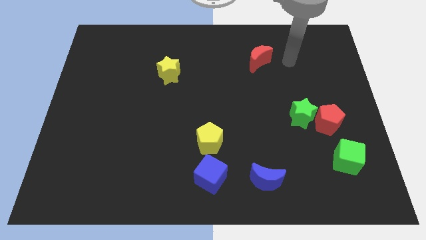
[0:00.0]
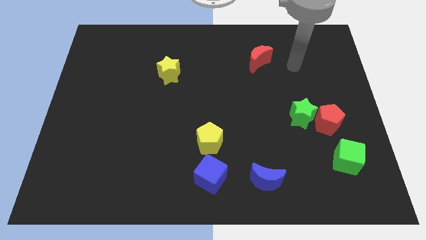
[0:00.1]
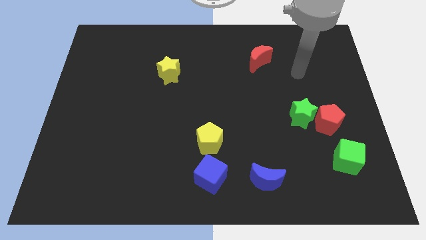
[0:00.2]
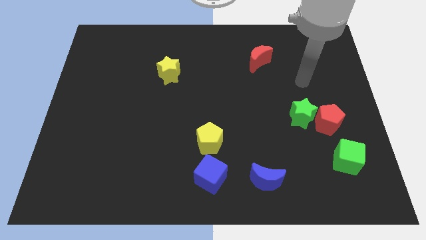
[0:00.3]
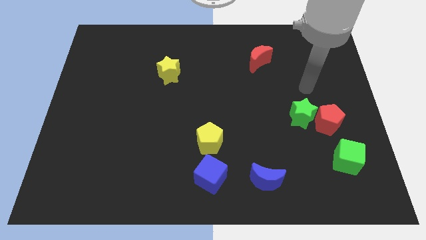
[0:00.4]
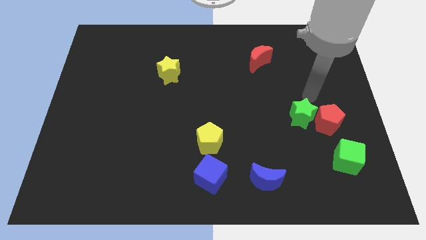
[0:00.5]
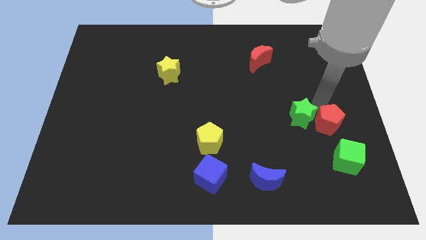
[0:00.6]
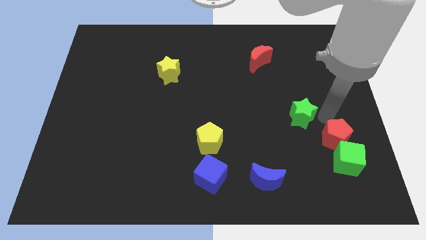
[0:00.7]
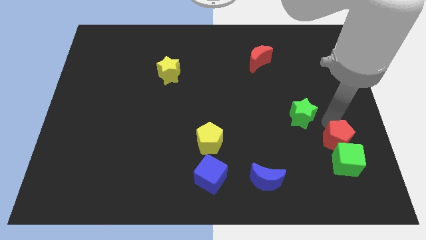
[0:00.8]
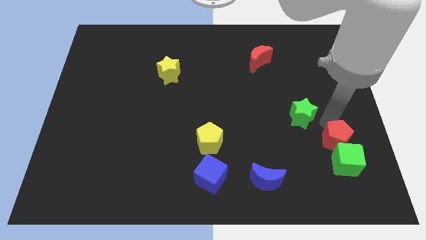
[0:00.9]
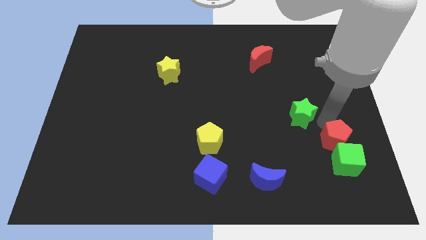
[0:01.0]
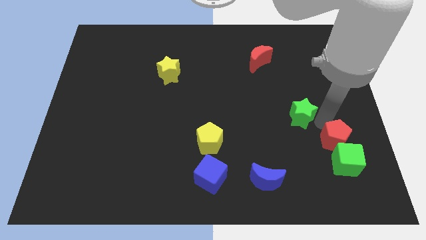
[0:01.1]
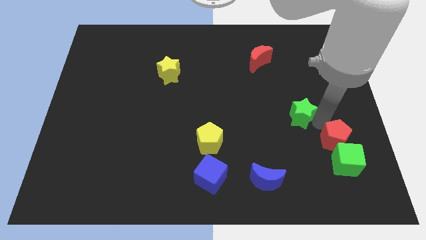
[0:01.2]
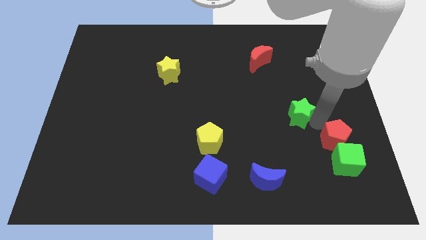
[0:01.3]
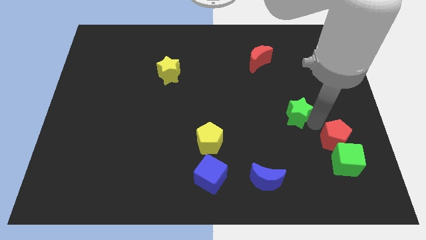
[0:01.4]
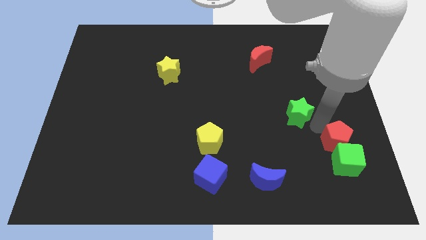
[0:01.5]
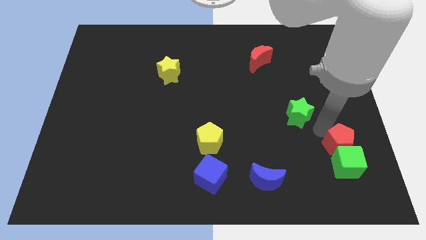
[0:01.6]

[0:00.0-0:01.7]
move the green star away from the red pentagon

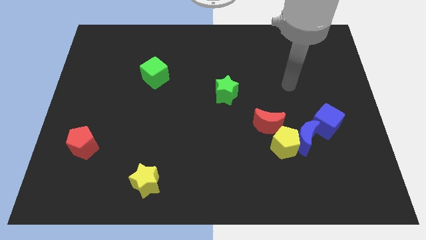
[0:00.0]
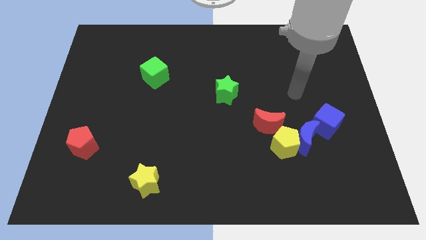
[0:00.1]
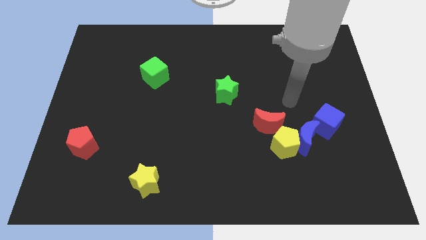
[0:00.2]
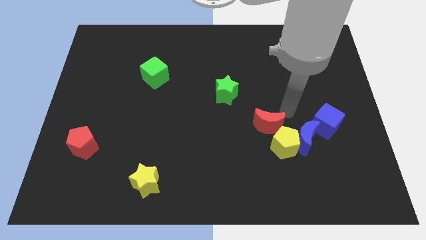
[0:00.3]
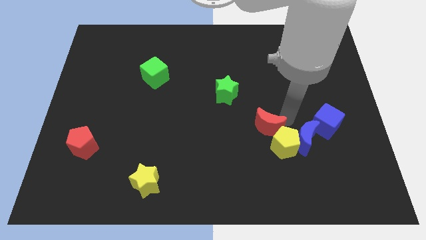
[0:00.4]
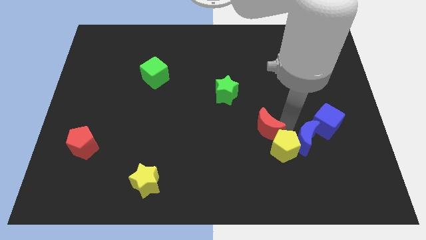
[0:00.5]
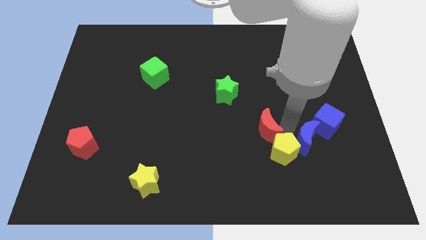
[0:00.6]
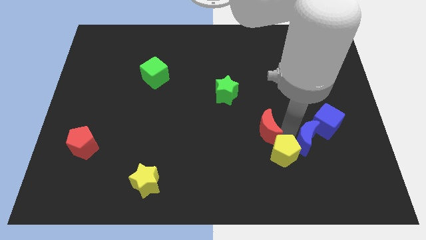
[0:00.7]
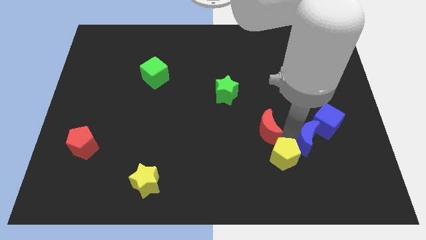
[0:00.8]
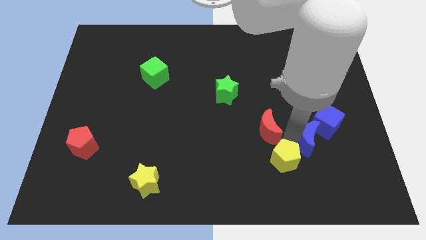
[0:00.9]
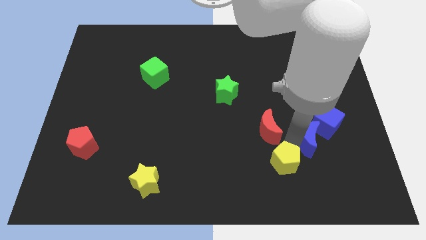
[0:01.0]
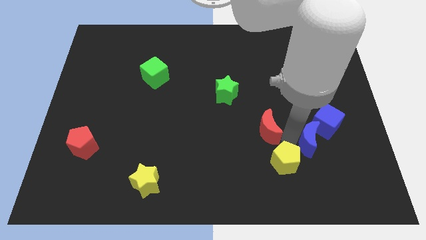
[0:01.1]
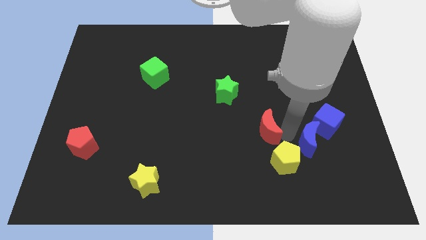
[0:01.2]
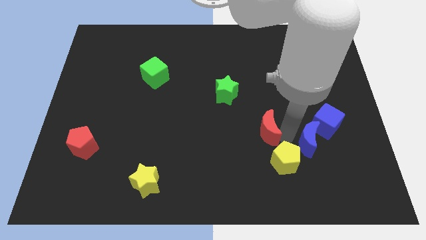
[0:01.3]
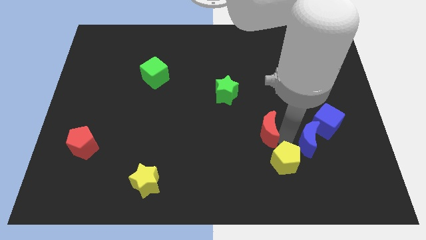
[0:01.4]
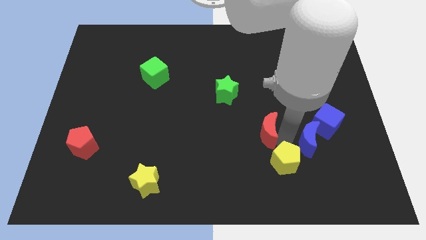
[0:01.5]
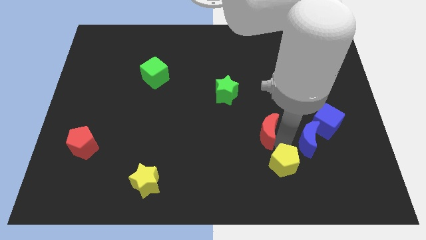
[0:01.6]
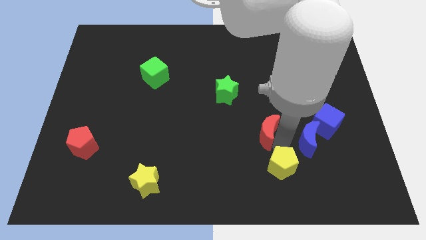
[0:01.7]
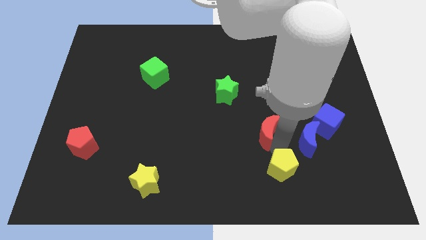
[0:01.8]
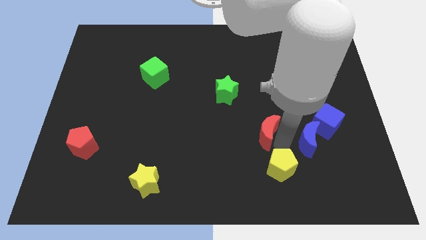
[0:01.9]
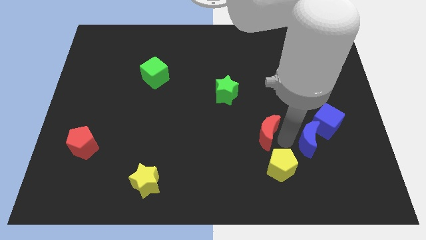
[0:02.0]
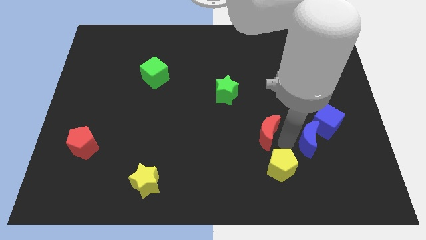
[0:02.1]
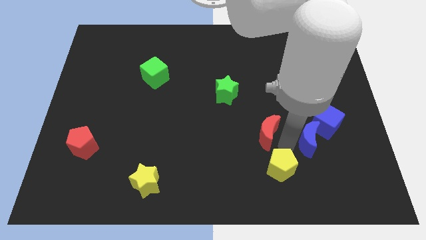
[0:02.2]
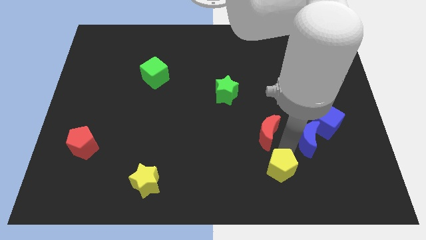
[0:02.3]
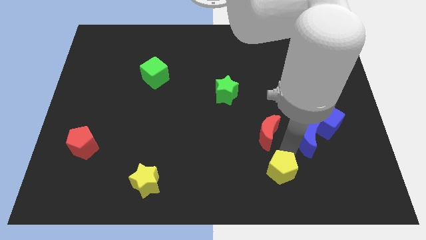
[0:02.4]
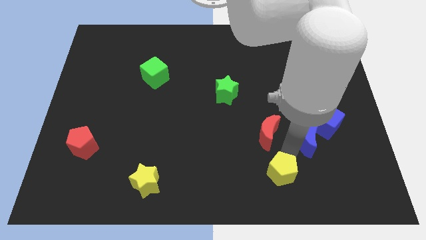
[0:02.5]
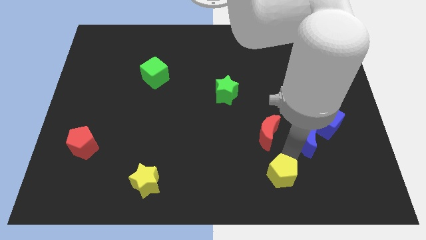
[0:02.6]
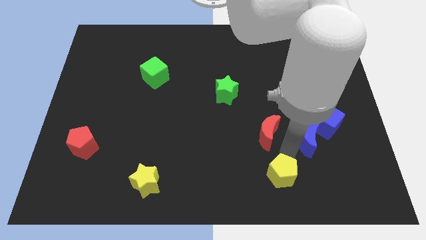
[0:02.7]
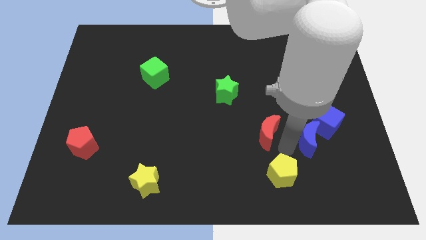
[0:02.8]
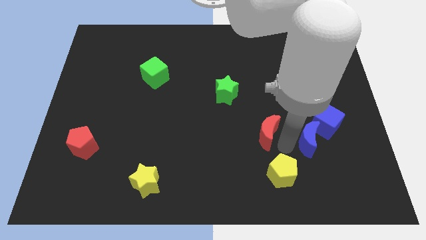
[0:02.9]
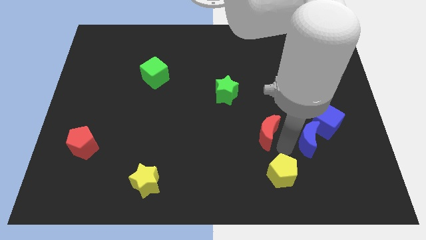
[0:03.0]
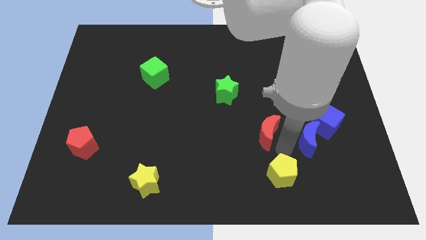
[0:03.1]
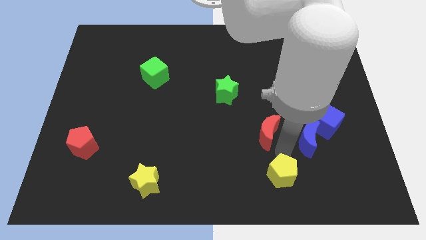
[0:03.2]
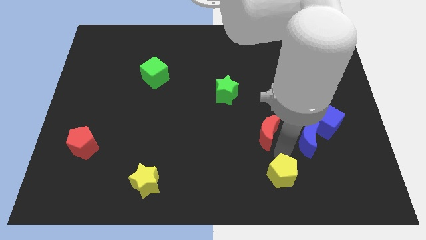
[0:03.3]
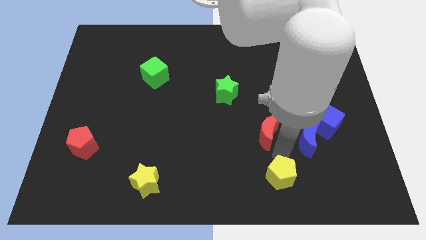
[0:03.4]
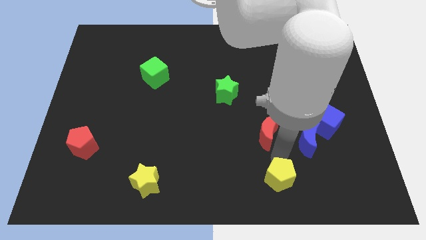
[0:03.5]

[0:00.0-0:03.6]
pull the yellow pentagon apart from the blue moon and red moon

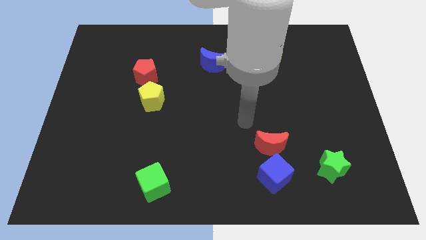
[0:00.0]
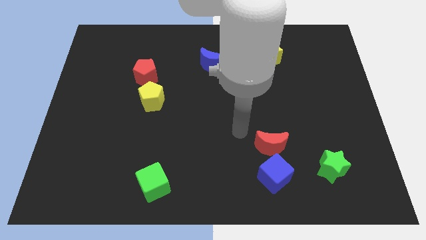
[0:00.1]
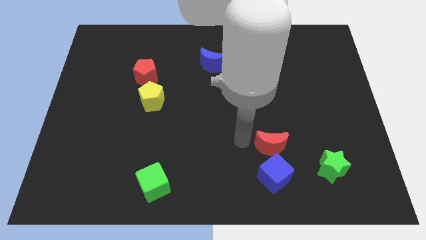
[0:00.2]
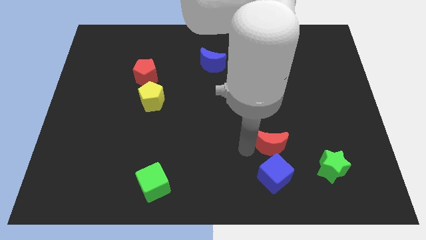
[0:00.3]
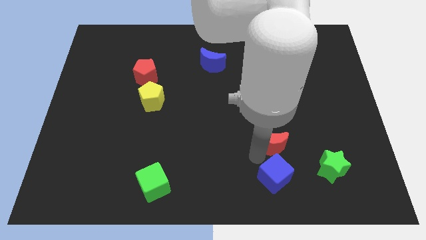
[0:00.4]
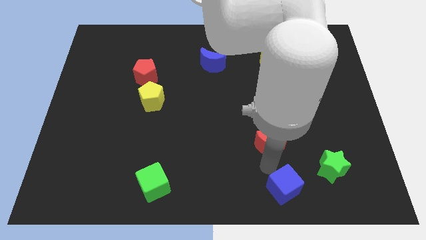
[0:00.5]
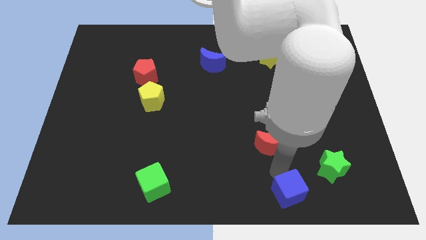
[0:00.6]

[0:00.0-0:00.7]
separate the red moon from the blue cube

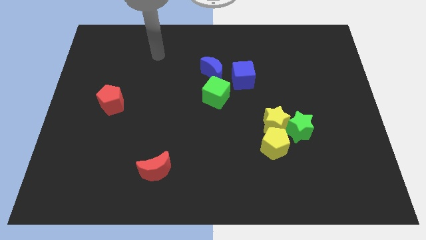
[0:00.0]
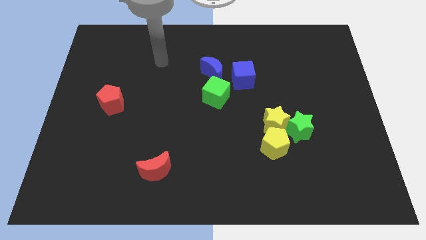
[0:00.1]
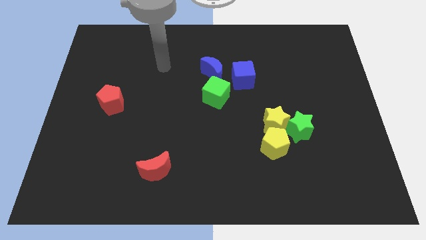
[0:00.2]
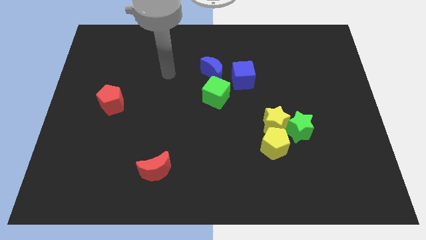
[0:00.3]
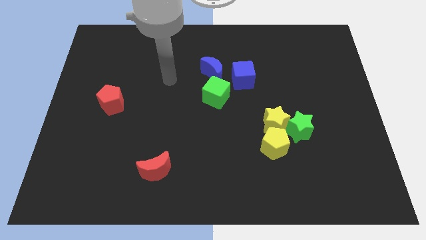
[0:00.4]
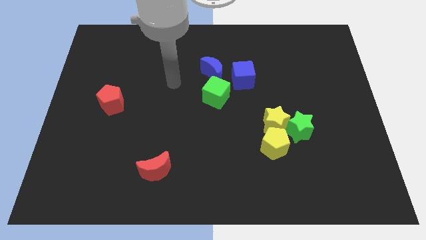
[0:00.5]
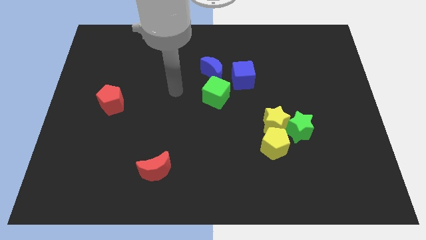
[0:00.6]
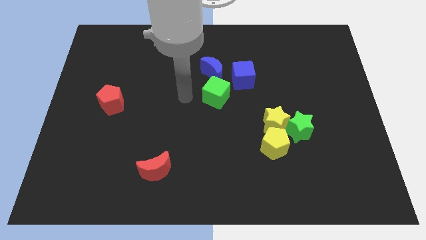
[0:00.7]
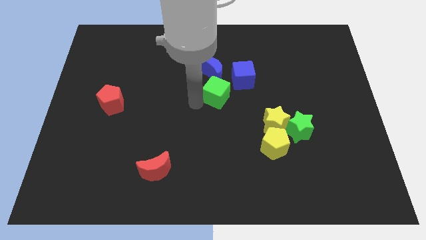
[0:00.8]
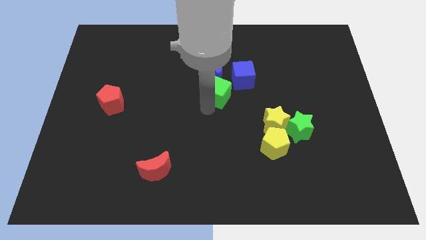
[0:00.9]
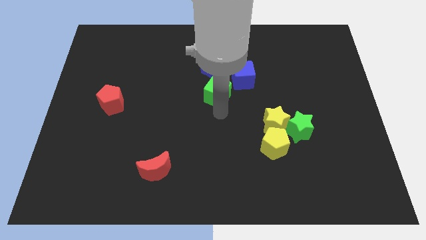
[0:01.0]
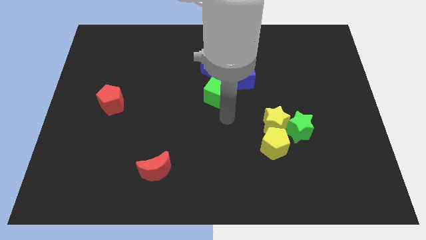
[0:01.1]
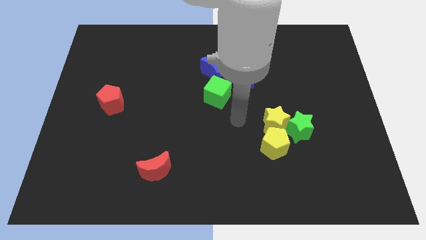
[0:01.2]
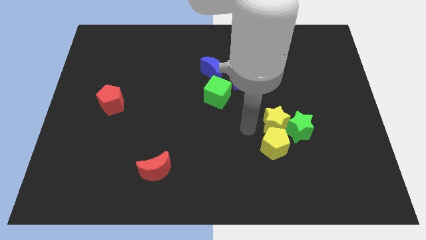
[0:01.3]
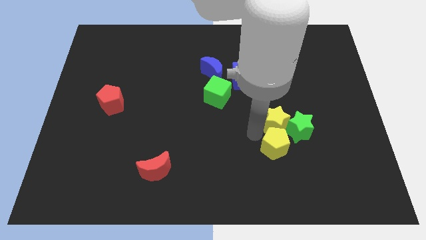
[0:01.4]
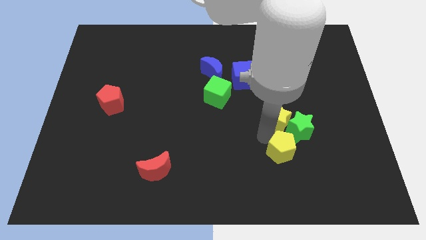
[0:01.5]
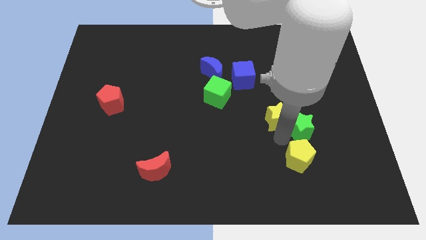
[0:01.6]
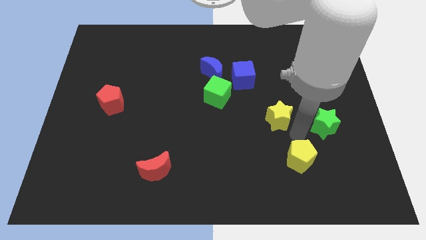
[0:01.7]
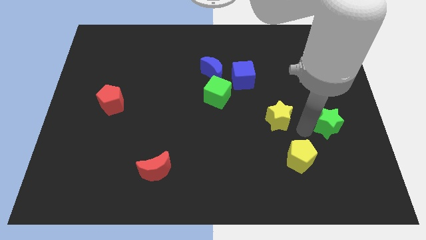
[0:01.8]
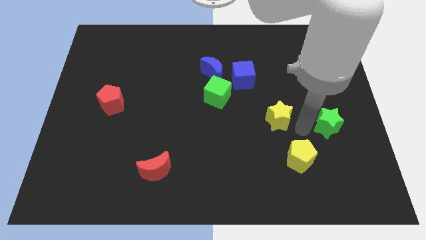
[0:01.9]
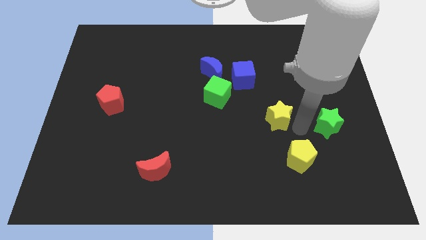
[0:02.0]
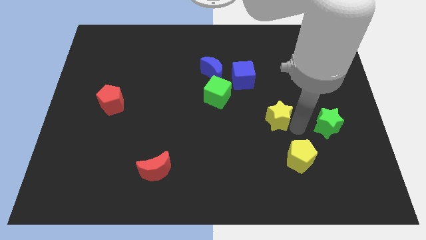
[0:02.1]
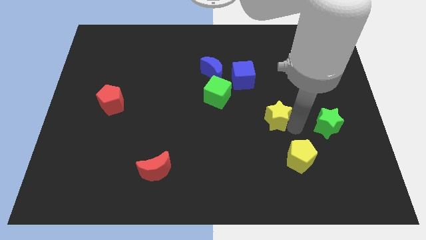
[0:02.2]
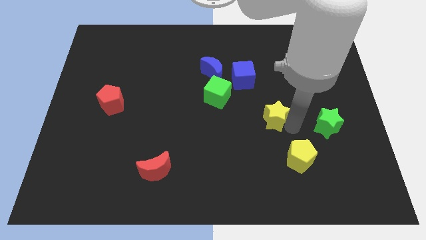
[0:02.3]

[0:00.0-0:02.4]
move the yellow star away from the green star and yellow pentagon

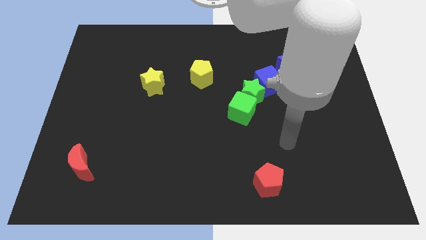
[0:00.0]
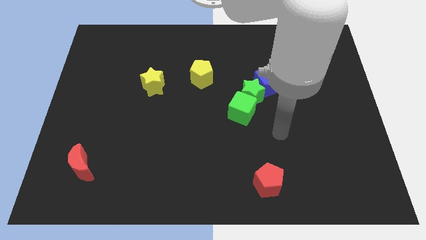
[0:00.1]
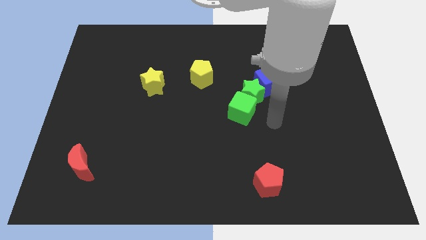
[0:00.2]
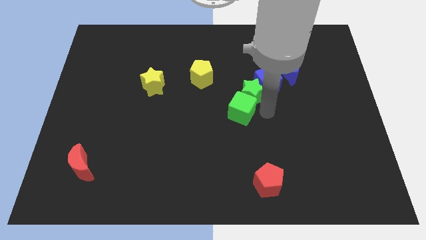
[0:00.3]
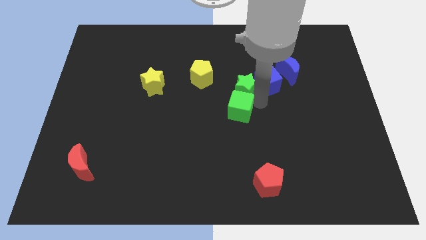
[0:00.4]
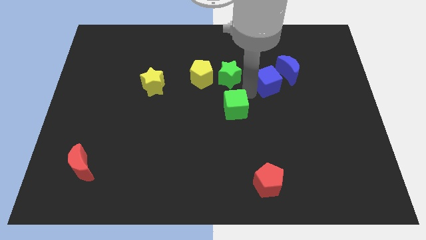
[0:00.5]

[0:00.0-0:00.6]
move the green cube away from the green star

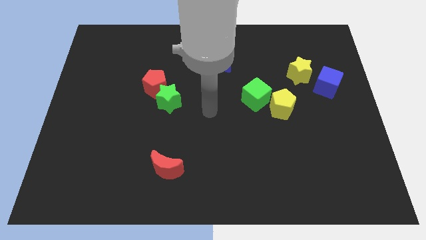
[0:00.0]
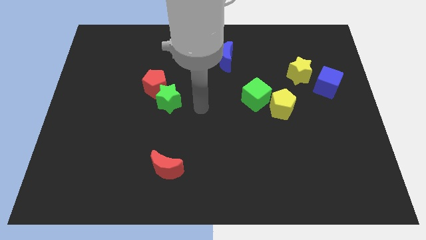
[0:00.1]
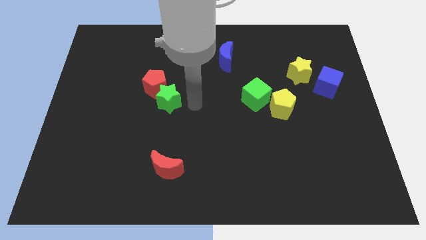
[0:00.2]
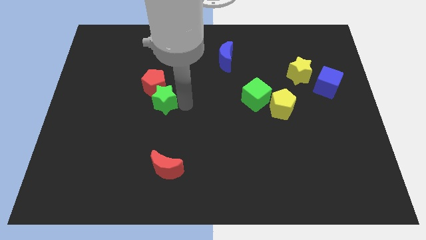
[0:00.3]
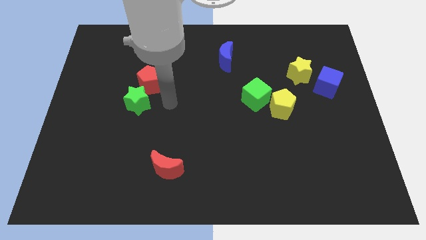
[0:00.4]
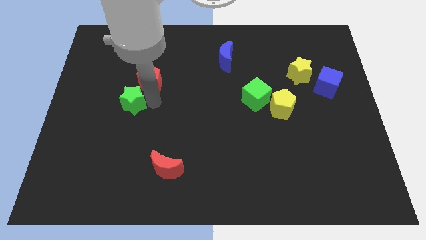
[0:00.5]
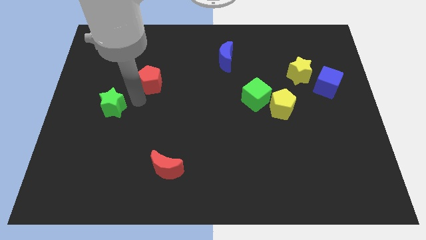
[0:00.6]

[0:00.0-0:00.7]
separate the red pentagon from the green star
